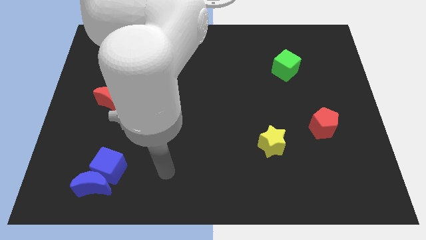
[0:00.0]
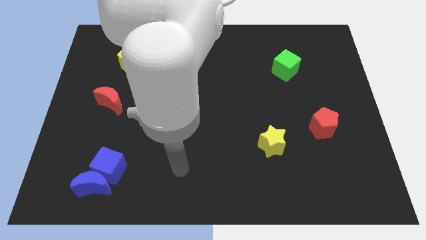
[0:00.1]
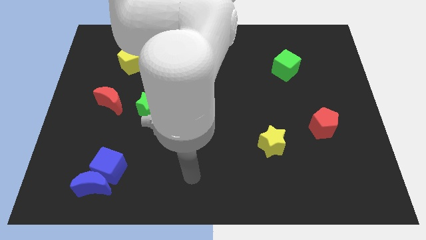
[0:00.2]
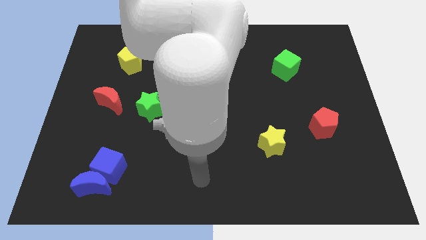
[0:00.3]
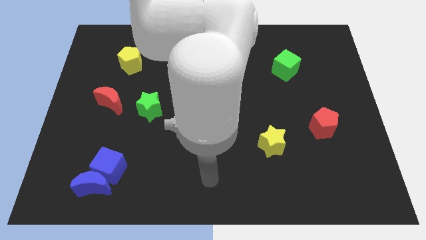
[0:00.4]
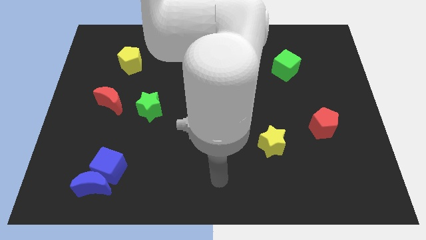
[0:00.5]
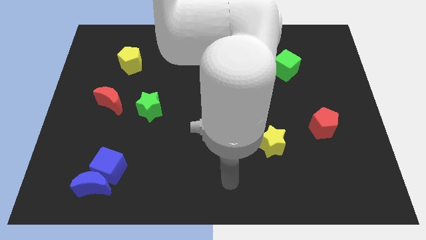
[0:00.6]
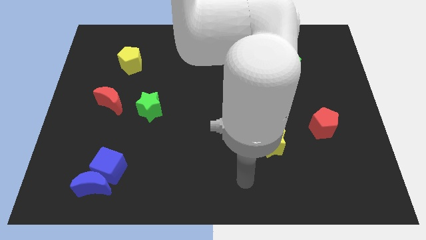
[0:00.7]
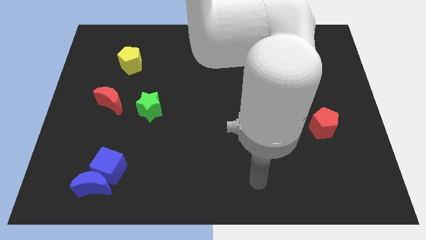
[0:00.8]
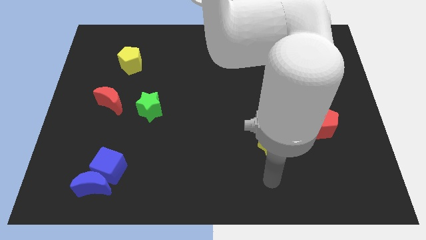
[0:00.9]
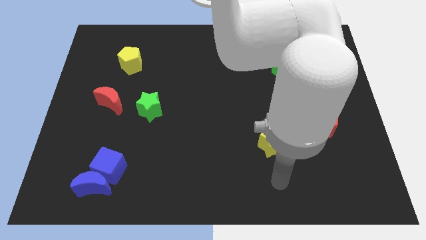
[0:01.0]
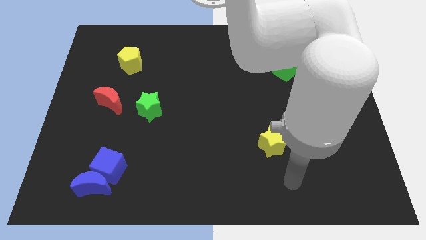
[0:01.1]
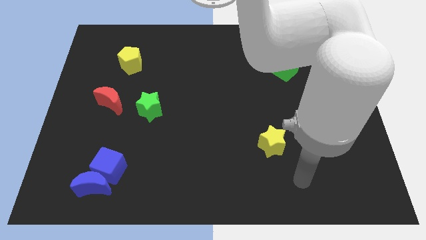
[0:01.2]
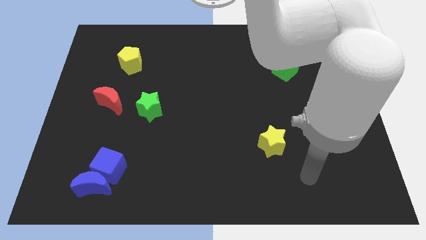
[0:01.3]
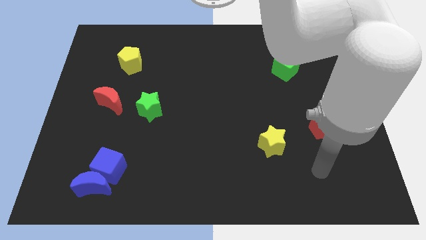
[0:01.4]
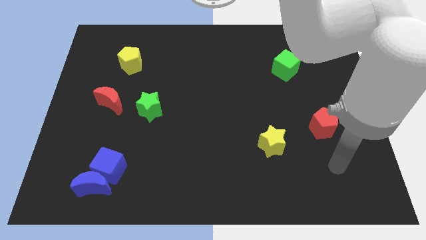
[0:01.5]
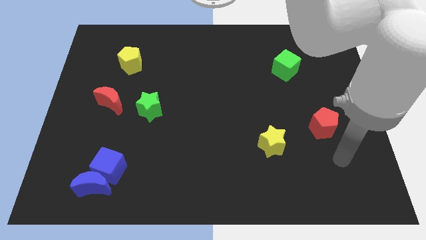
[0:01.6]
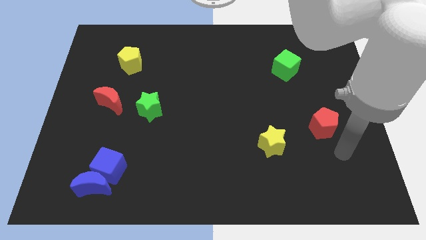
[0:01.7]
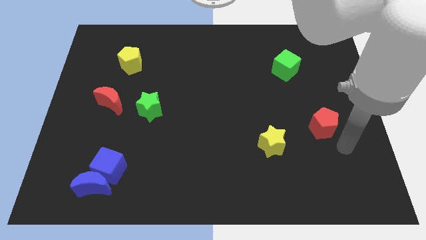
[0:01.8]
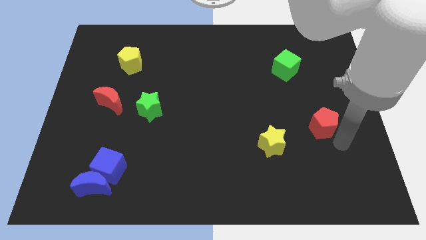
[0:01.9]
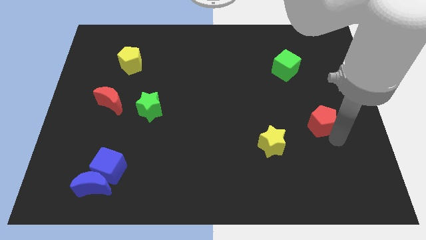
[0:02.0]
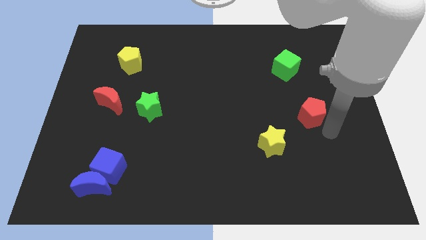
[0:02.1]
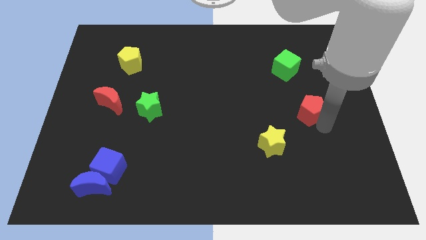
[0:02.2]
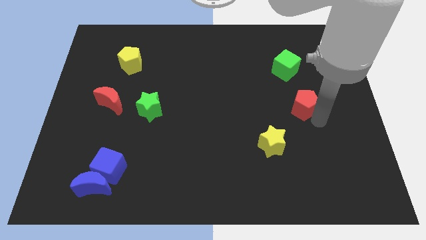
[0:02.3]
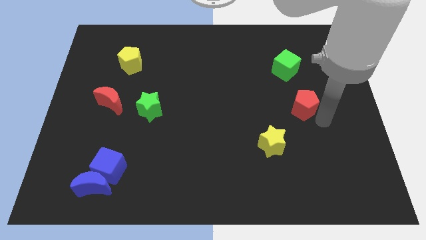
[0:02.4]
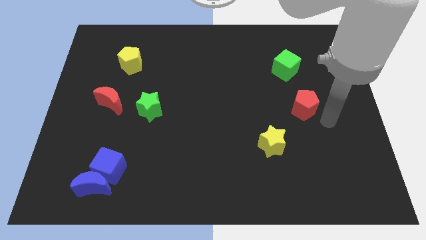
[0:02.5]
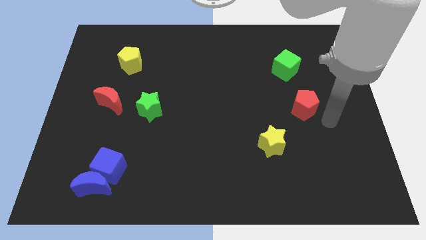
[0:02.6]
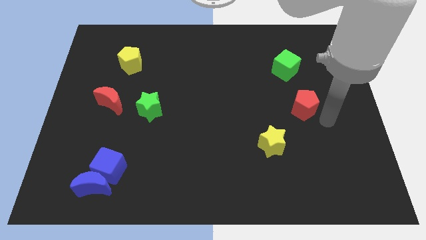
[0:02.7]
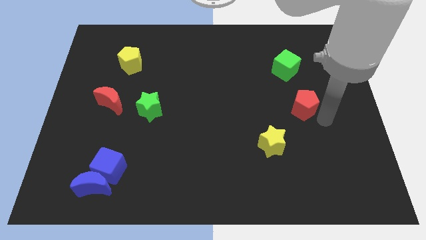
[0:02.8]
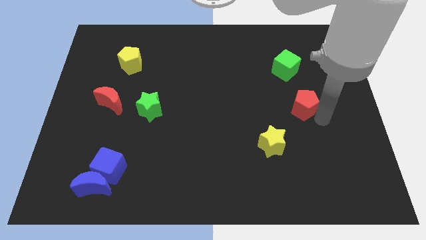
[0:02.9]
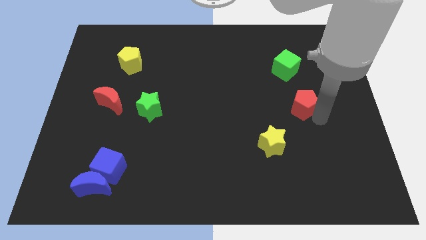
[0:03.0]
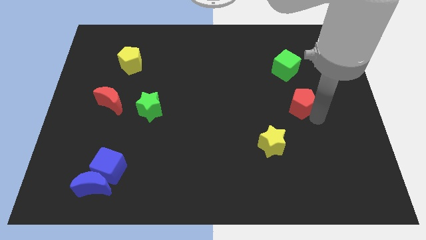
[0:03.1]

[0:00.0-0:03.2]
slightly move the red pentagon diagonally up and left

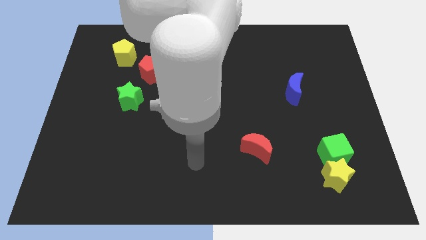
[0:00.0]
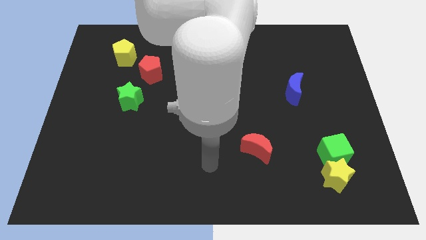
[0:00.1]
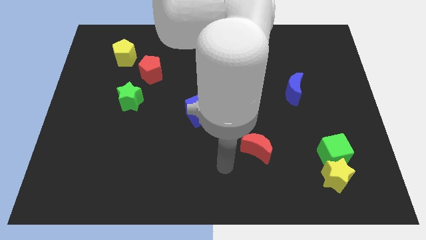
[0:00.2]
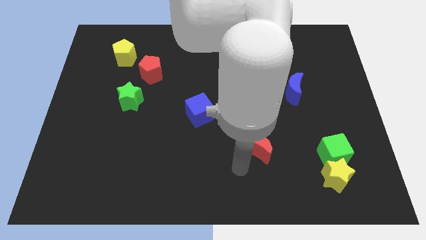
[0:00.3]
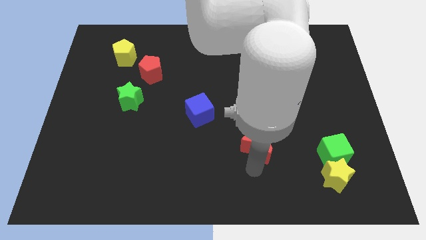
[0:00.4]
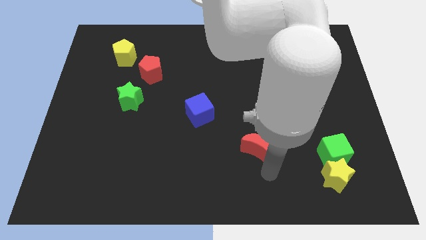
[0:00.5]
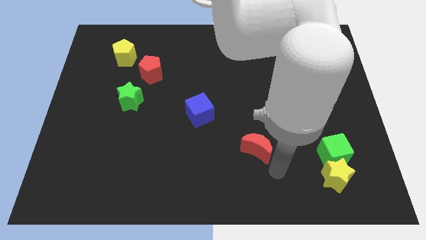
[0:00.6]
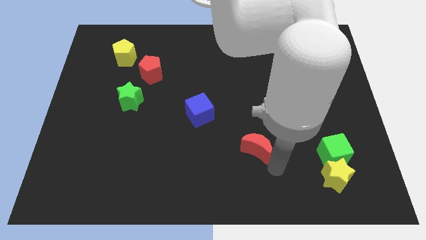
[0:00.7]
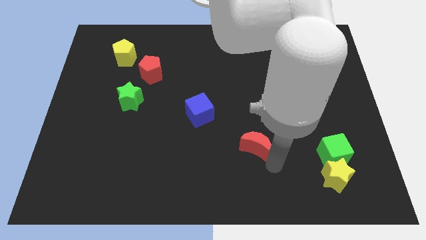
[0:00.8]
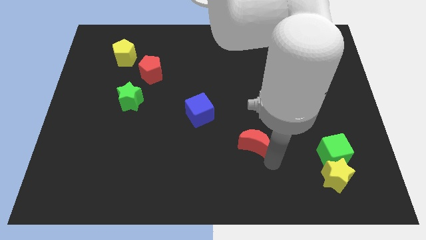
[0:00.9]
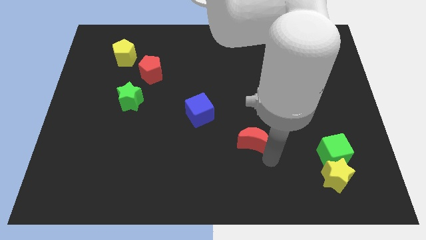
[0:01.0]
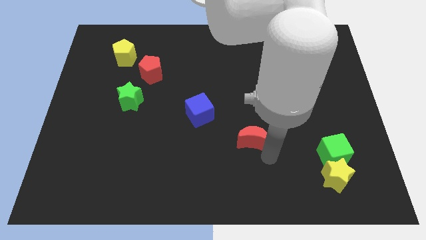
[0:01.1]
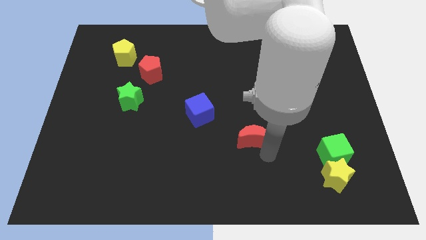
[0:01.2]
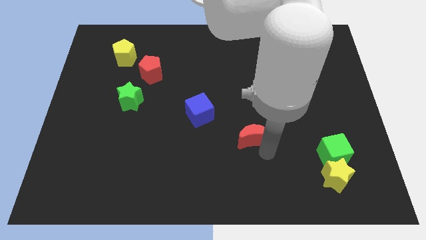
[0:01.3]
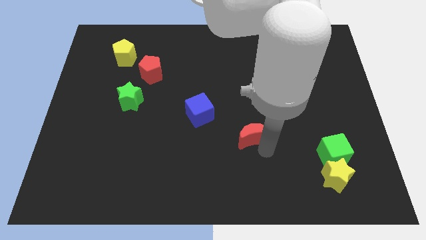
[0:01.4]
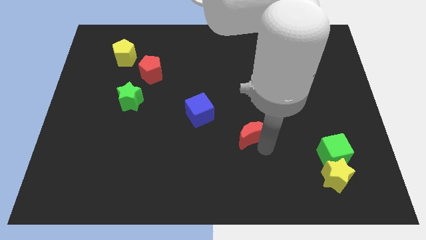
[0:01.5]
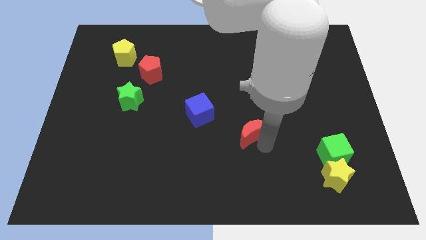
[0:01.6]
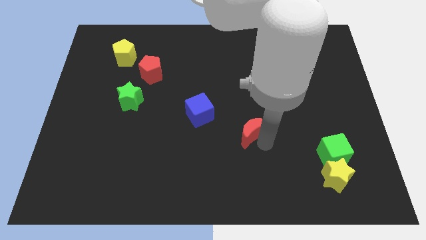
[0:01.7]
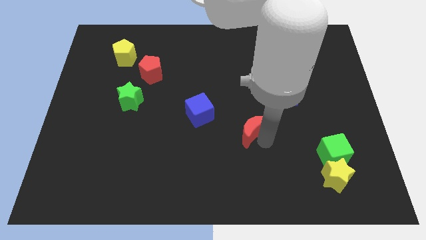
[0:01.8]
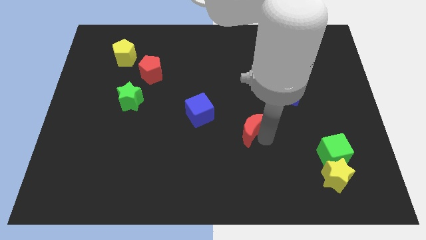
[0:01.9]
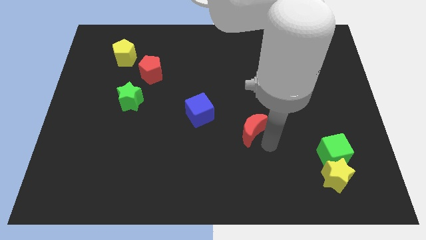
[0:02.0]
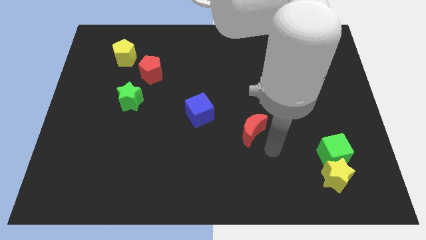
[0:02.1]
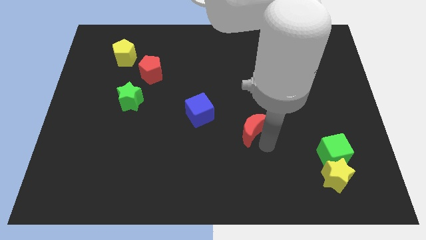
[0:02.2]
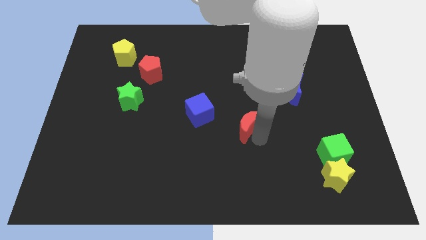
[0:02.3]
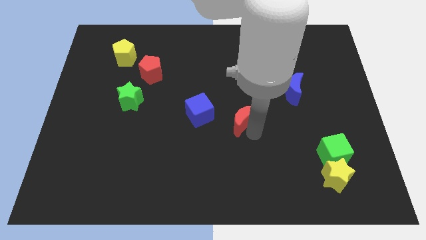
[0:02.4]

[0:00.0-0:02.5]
move the red moon upwards and to the left a little

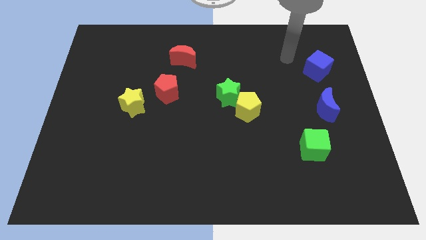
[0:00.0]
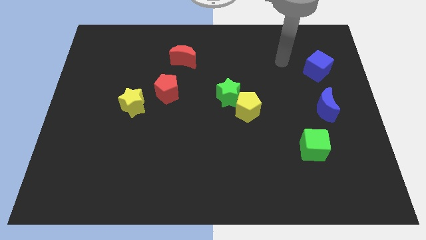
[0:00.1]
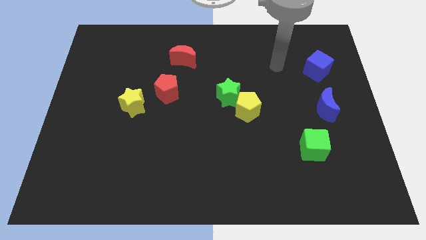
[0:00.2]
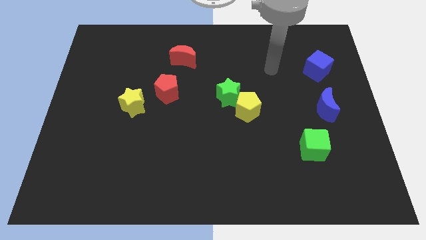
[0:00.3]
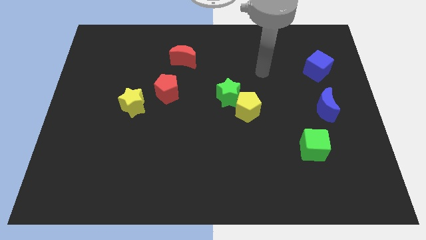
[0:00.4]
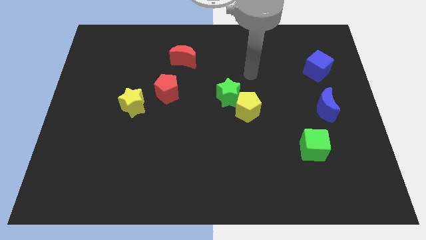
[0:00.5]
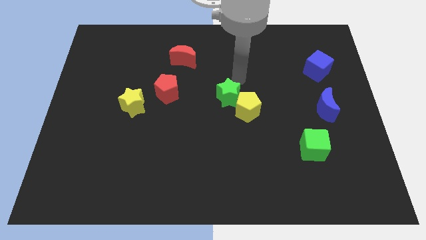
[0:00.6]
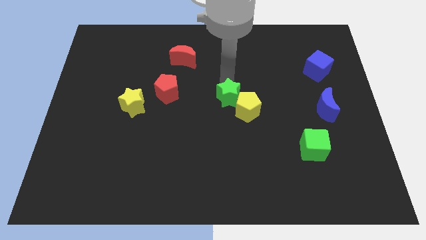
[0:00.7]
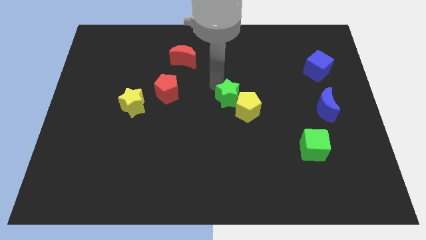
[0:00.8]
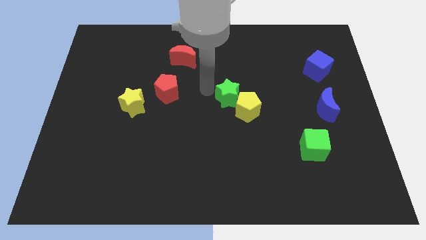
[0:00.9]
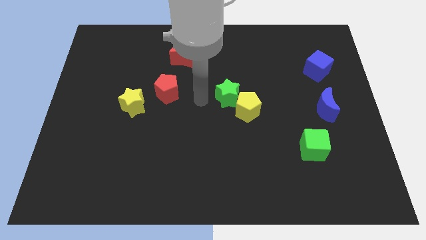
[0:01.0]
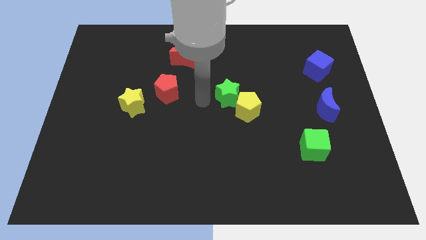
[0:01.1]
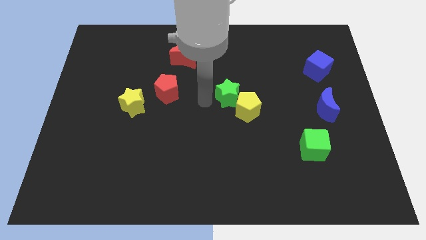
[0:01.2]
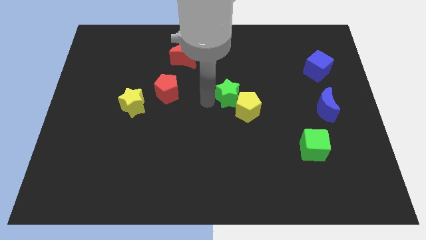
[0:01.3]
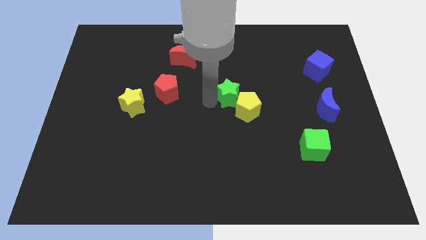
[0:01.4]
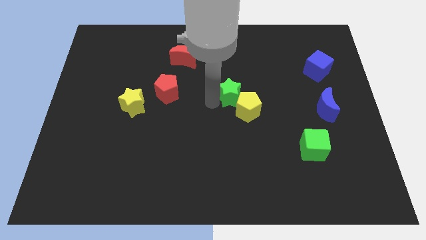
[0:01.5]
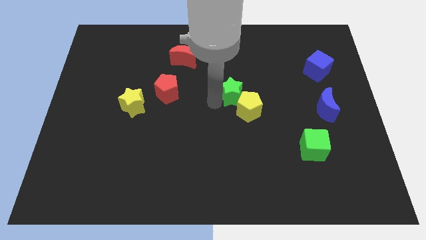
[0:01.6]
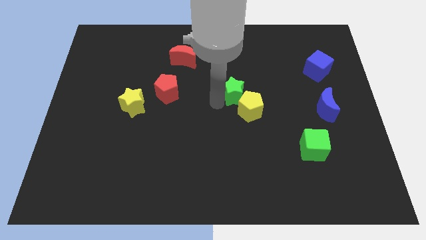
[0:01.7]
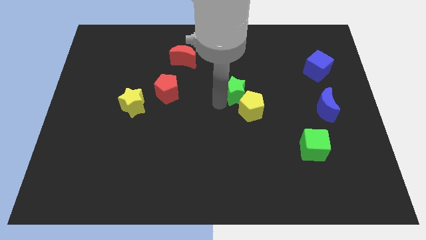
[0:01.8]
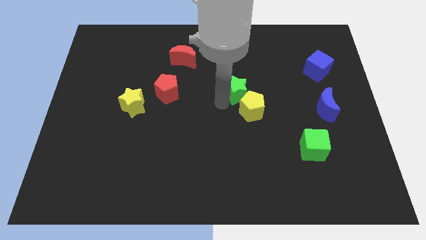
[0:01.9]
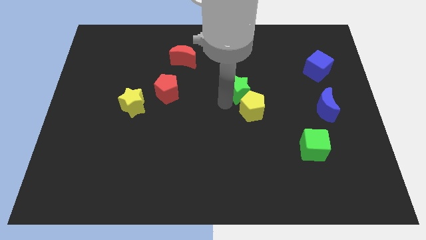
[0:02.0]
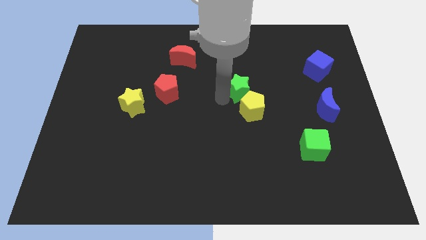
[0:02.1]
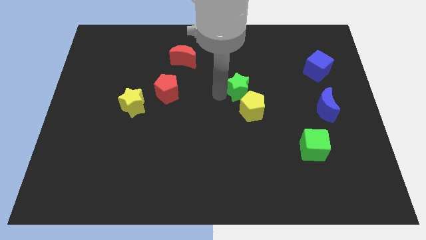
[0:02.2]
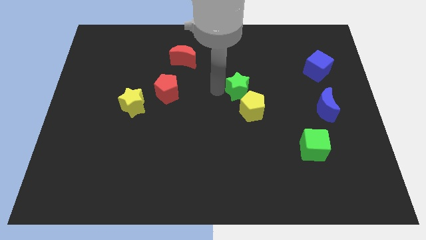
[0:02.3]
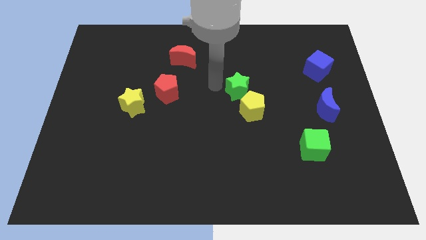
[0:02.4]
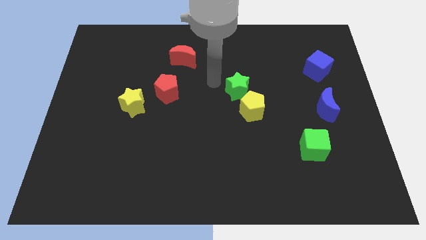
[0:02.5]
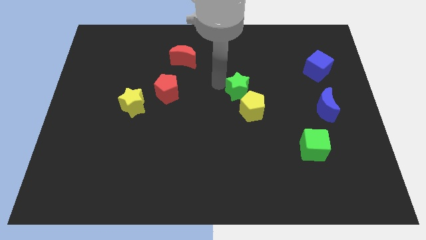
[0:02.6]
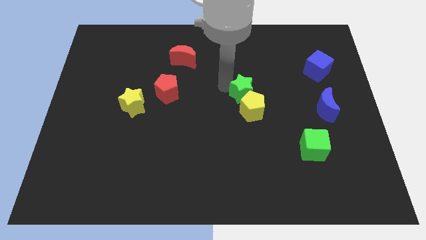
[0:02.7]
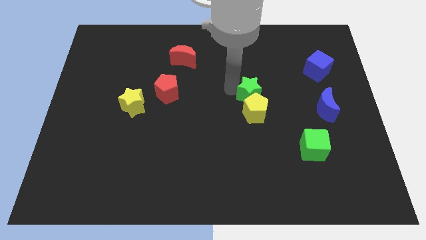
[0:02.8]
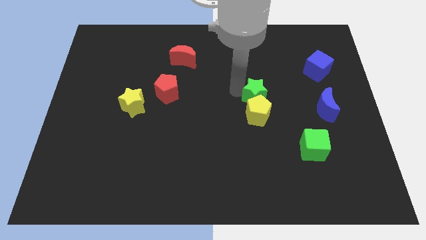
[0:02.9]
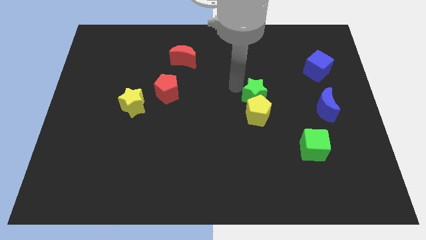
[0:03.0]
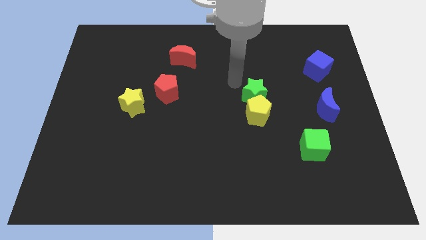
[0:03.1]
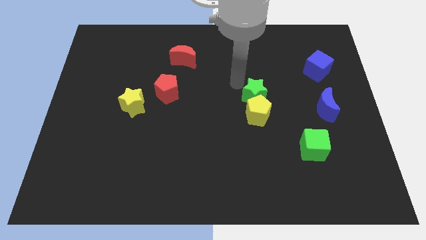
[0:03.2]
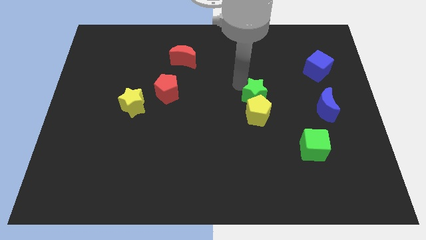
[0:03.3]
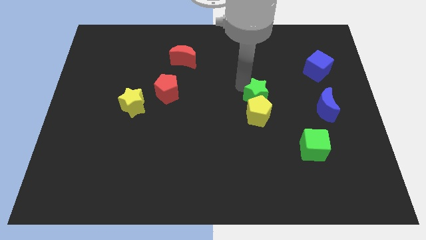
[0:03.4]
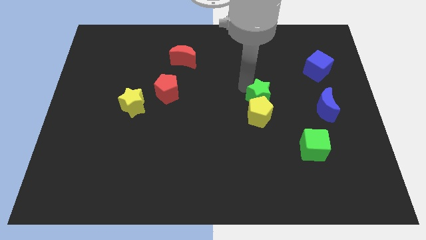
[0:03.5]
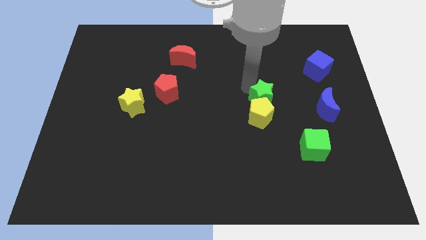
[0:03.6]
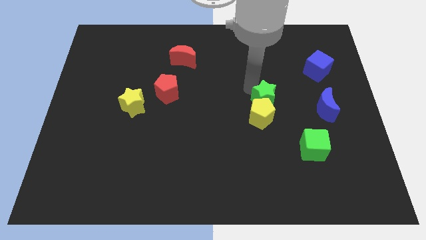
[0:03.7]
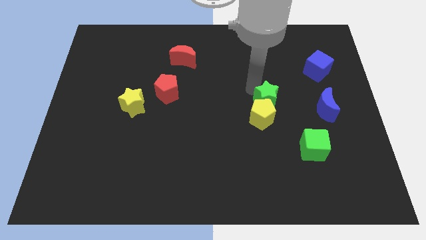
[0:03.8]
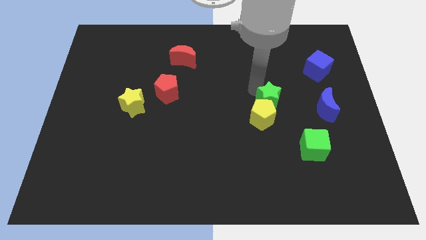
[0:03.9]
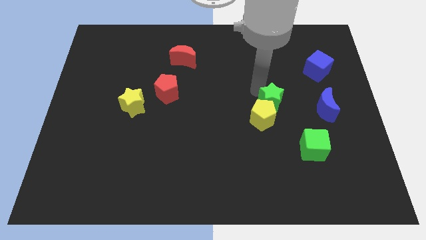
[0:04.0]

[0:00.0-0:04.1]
push the green star somewhat diagonally downwards and right
